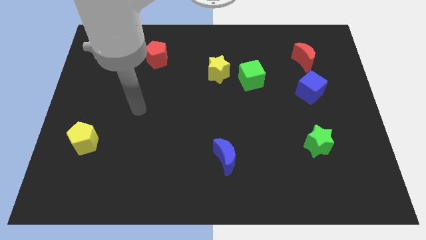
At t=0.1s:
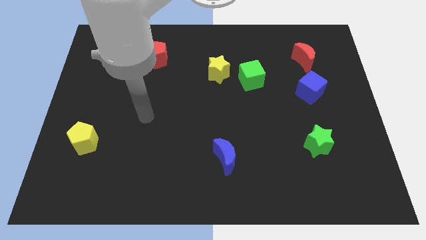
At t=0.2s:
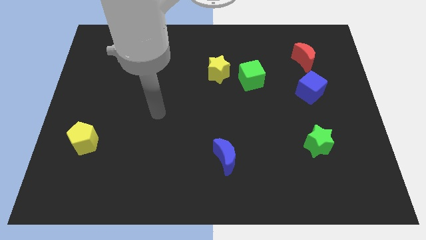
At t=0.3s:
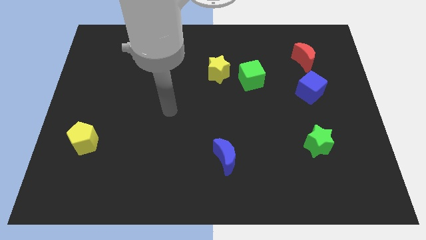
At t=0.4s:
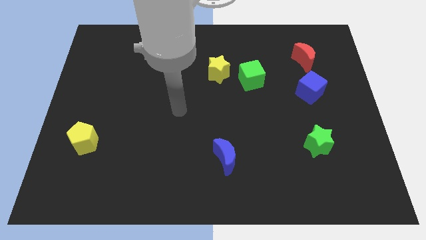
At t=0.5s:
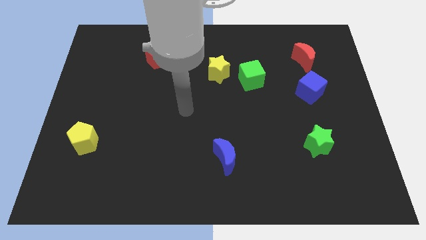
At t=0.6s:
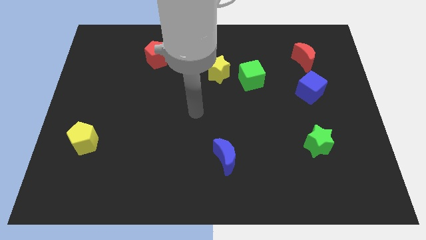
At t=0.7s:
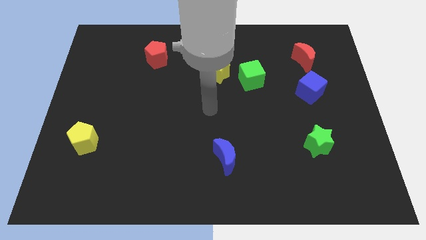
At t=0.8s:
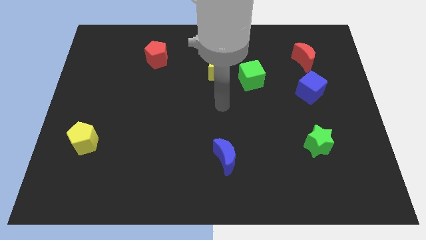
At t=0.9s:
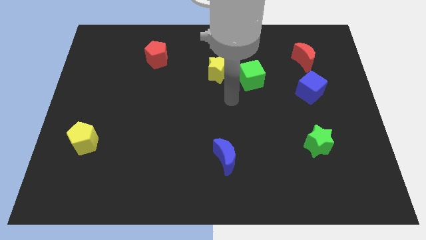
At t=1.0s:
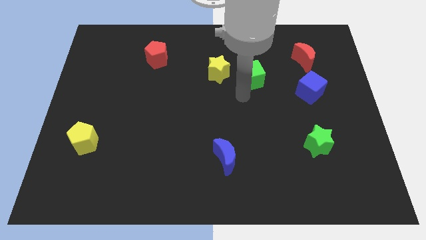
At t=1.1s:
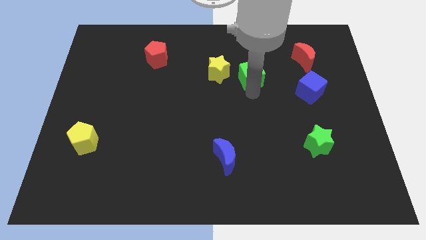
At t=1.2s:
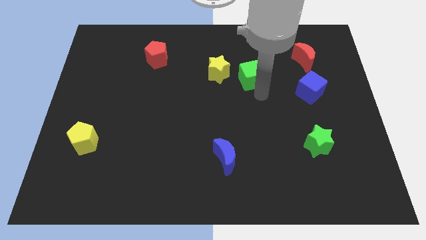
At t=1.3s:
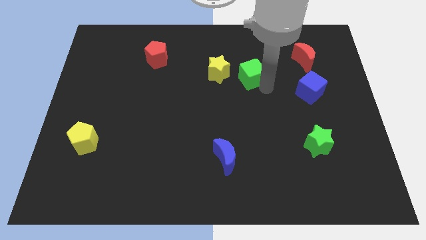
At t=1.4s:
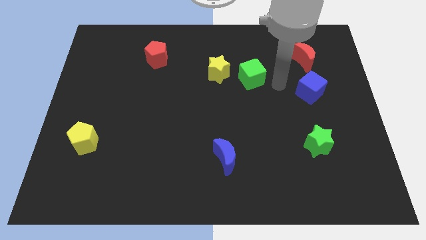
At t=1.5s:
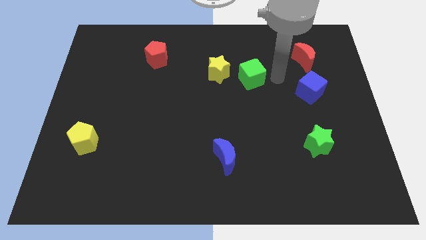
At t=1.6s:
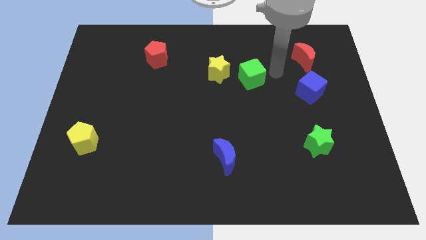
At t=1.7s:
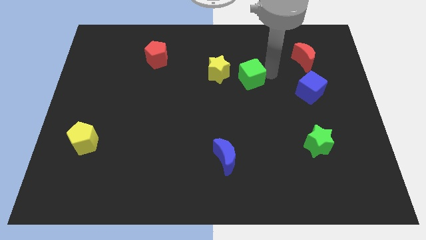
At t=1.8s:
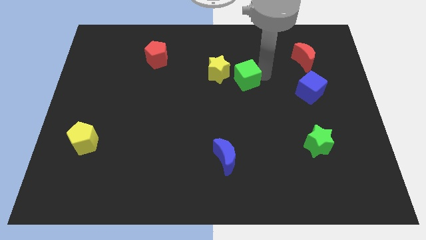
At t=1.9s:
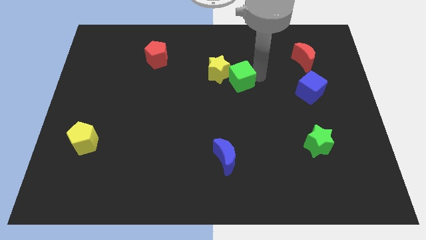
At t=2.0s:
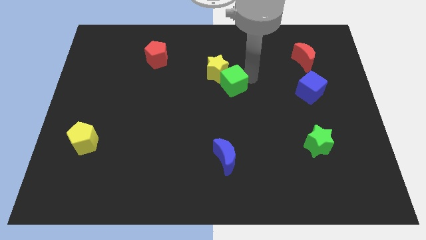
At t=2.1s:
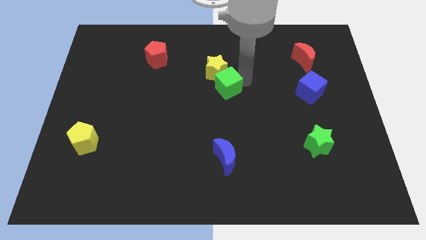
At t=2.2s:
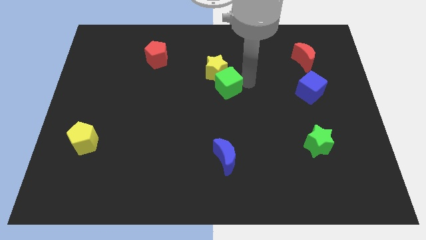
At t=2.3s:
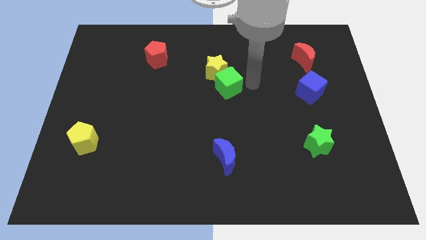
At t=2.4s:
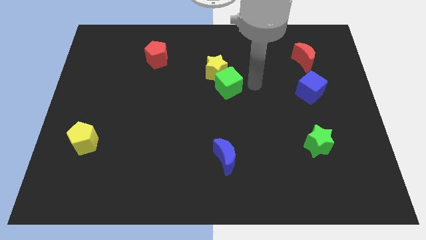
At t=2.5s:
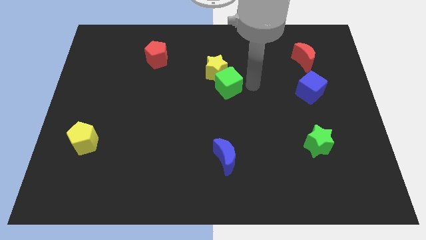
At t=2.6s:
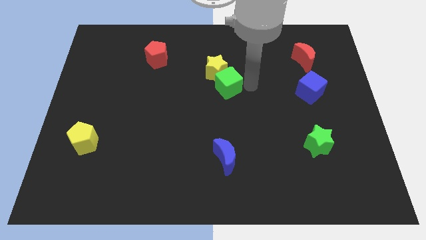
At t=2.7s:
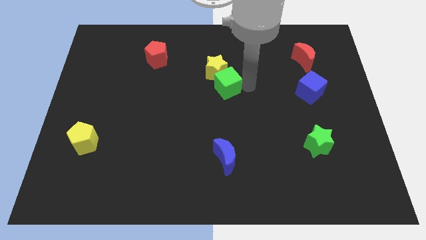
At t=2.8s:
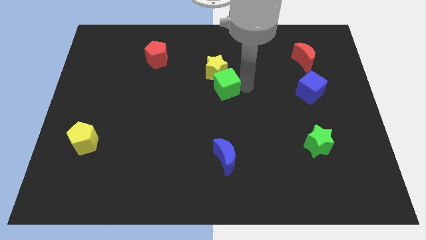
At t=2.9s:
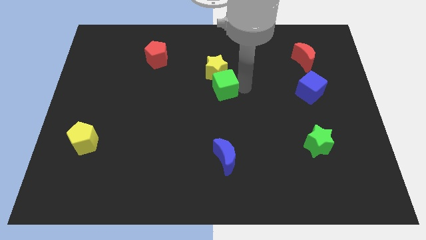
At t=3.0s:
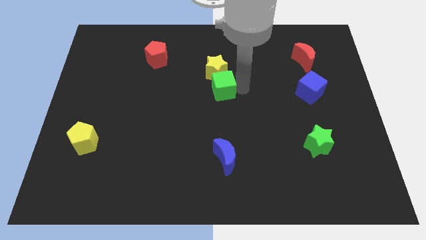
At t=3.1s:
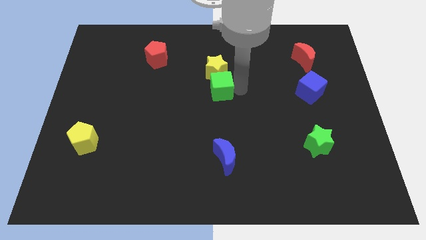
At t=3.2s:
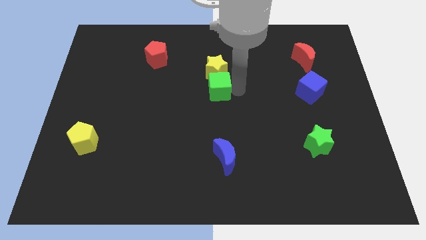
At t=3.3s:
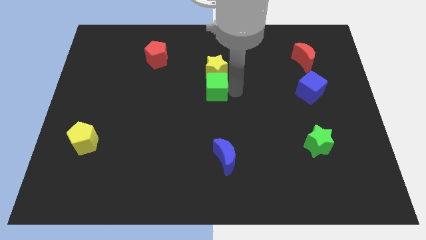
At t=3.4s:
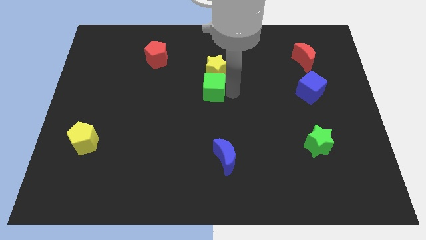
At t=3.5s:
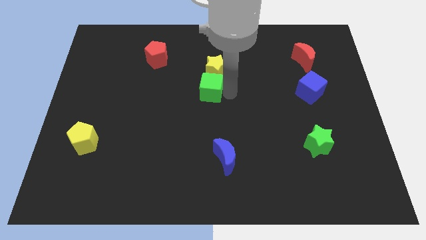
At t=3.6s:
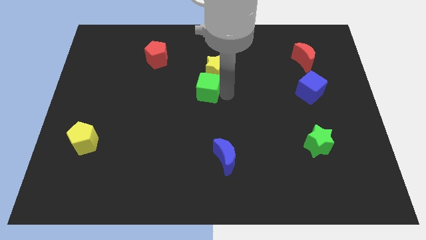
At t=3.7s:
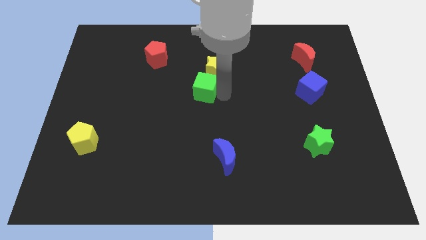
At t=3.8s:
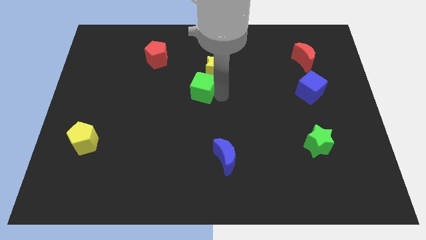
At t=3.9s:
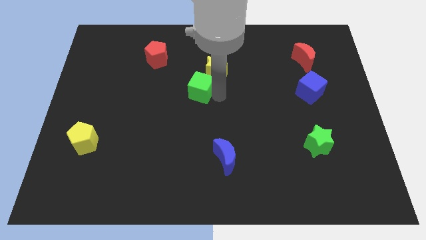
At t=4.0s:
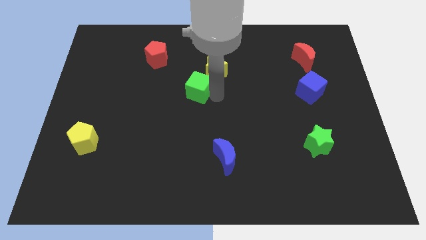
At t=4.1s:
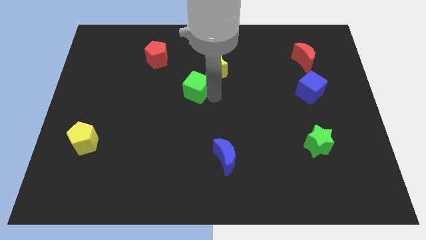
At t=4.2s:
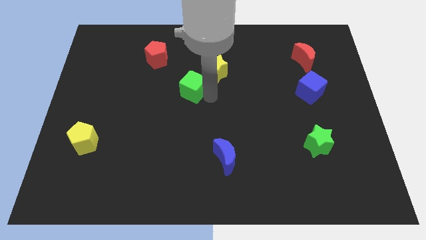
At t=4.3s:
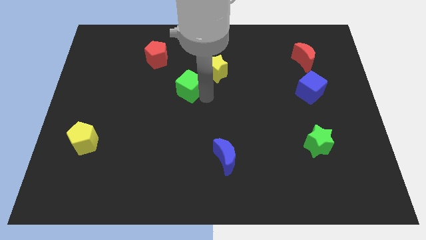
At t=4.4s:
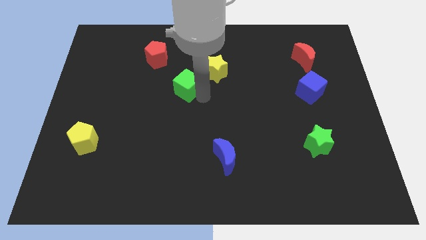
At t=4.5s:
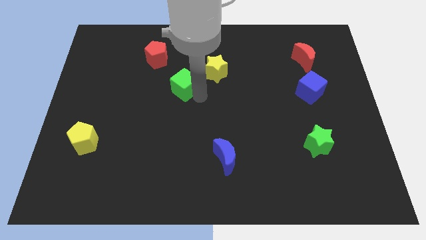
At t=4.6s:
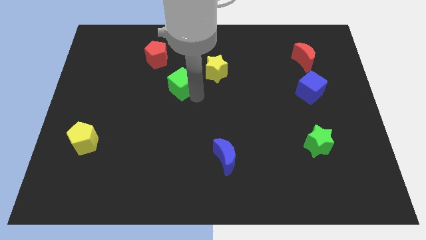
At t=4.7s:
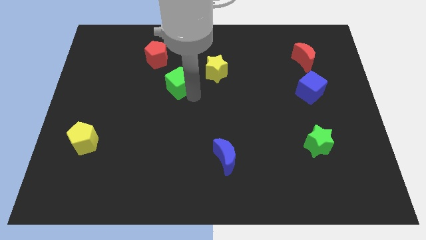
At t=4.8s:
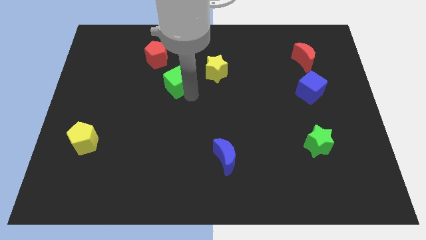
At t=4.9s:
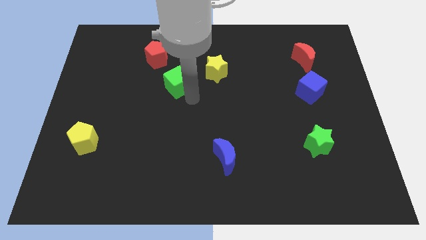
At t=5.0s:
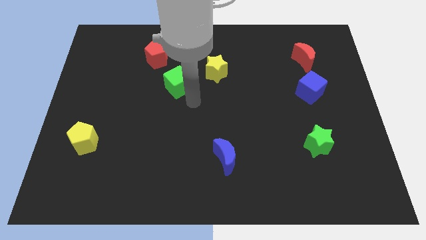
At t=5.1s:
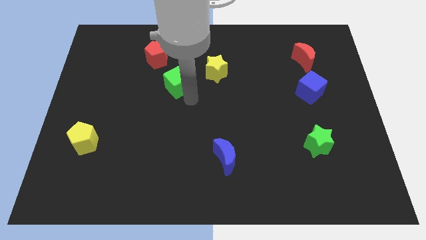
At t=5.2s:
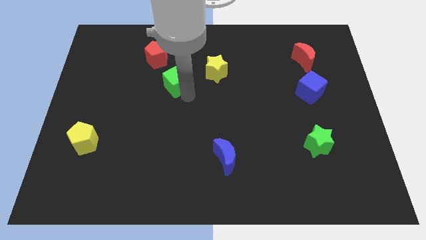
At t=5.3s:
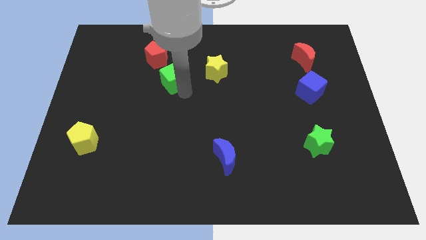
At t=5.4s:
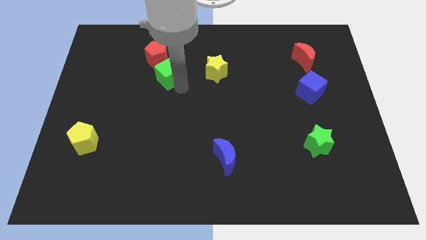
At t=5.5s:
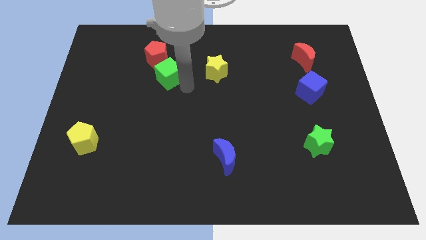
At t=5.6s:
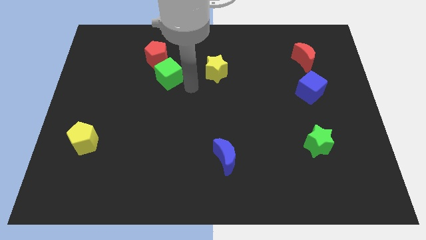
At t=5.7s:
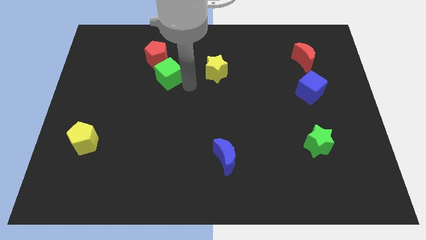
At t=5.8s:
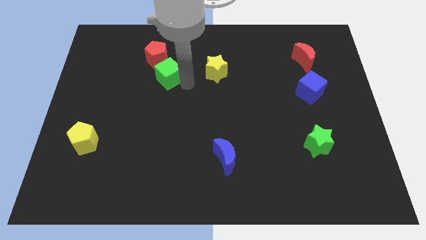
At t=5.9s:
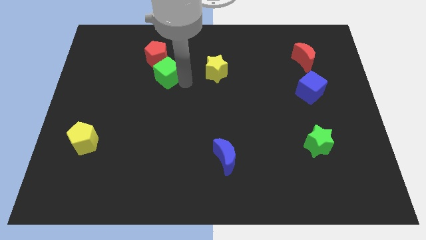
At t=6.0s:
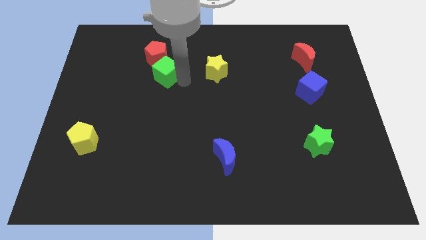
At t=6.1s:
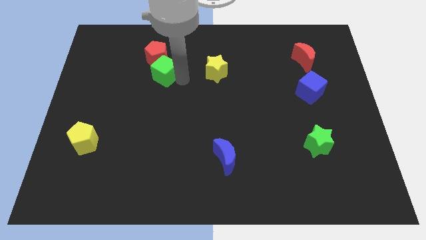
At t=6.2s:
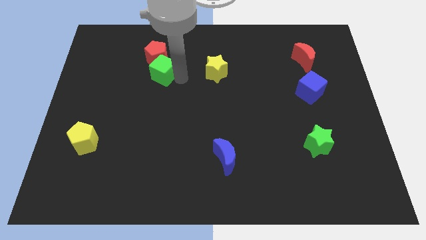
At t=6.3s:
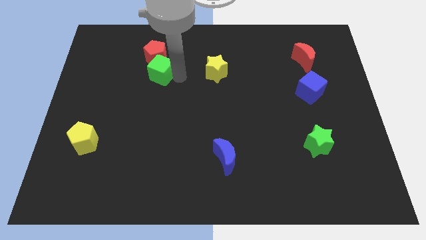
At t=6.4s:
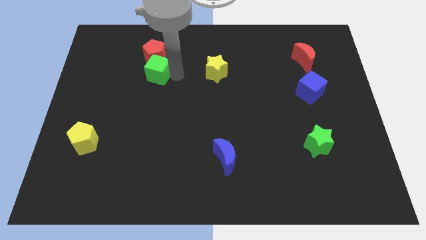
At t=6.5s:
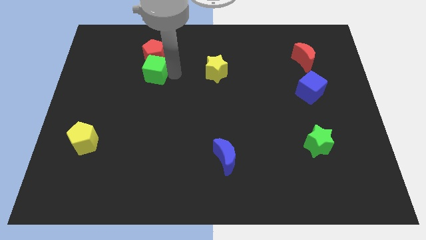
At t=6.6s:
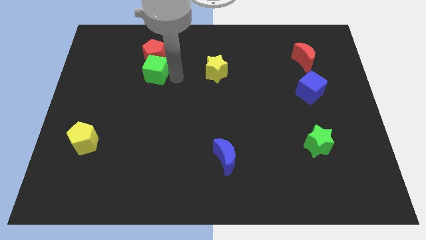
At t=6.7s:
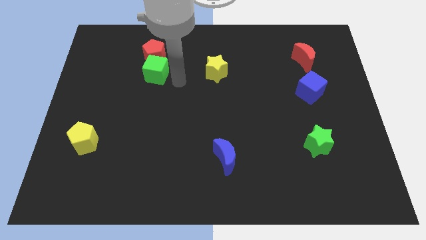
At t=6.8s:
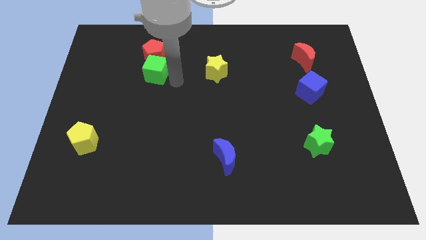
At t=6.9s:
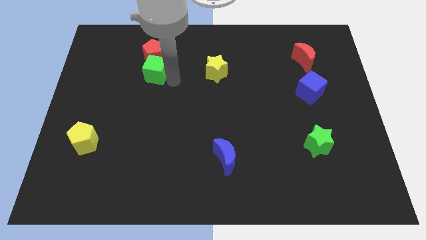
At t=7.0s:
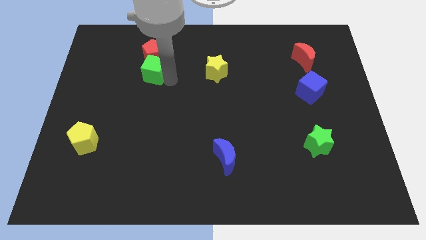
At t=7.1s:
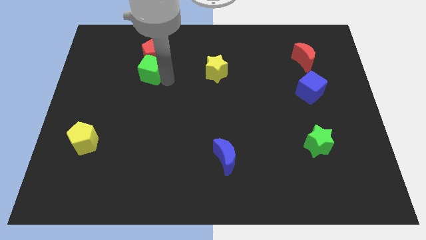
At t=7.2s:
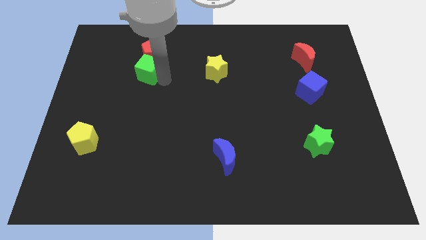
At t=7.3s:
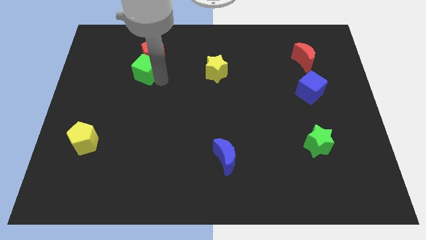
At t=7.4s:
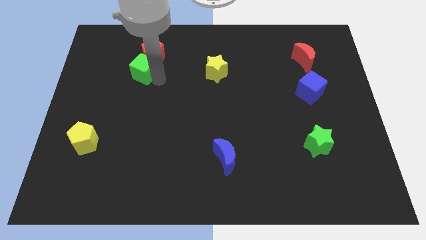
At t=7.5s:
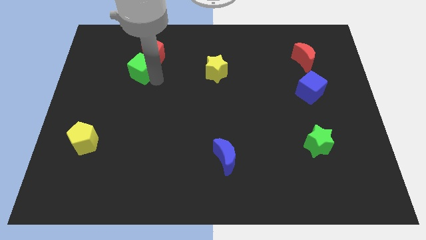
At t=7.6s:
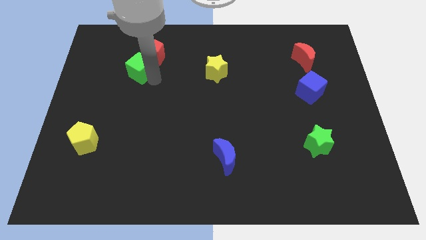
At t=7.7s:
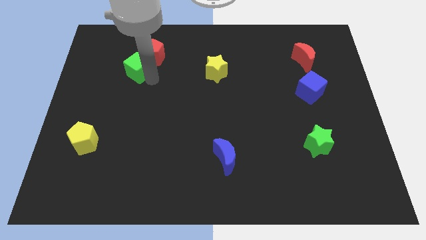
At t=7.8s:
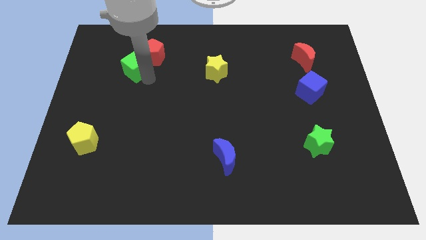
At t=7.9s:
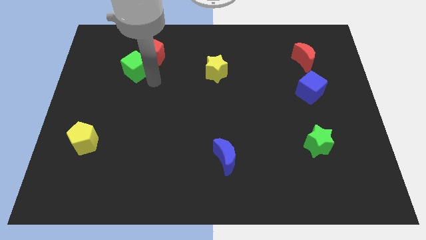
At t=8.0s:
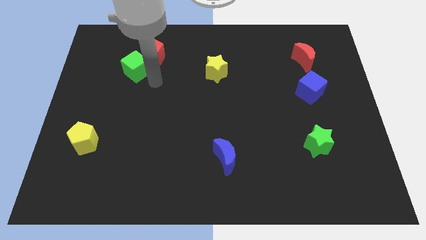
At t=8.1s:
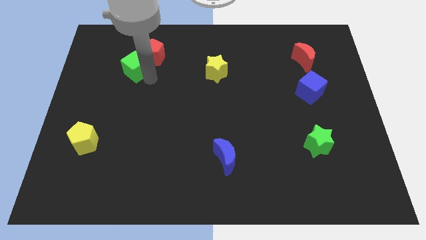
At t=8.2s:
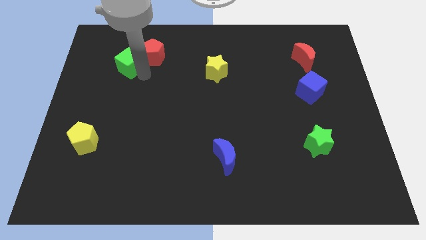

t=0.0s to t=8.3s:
slide the green cube left of the red pentagon
